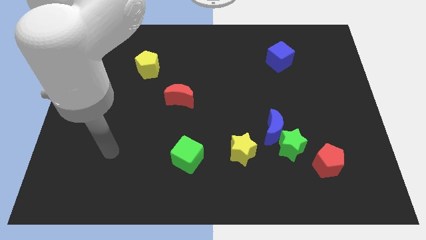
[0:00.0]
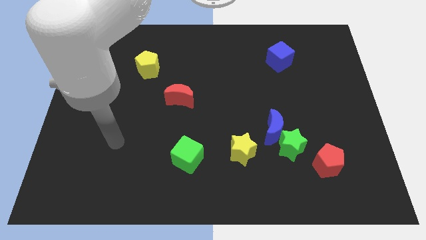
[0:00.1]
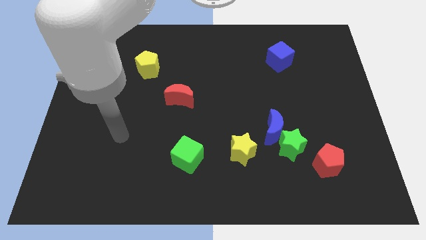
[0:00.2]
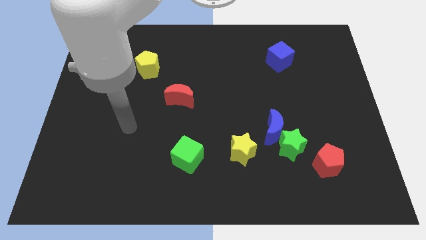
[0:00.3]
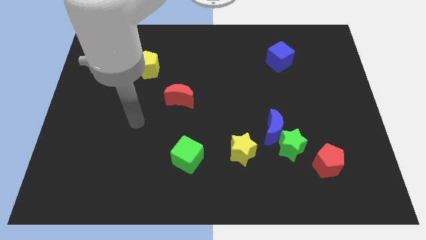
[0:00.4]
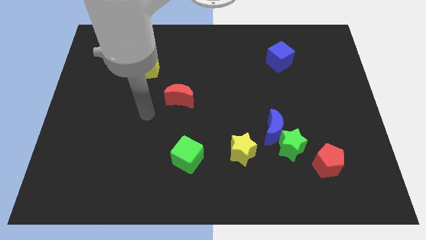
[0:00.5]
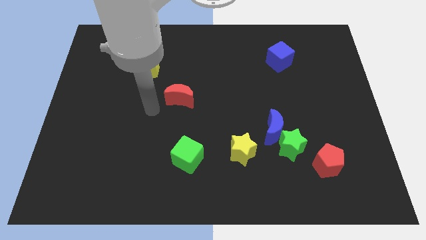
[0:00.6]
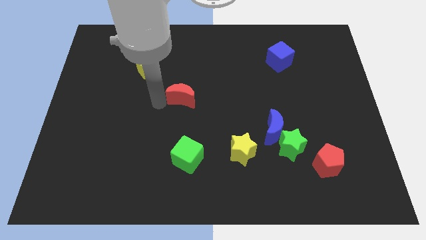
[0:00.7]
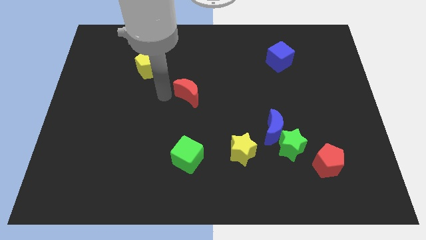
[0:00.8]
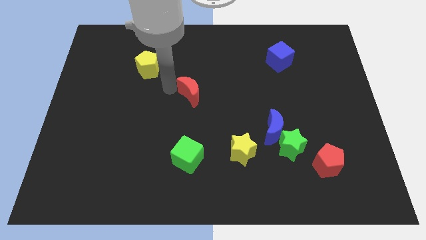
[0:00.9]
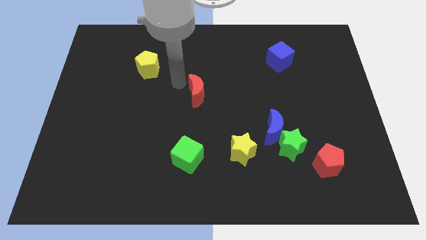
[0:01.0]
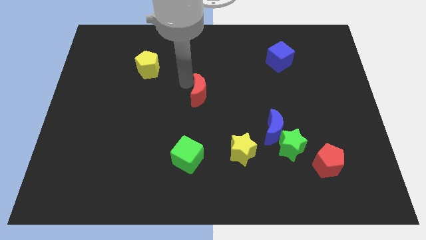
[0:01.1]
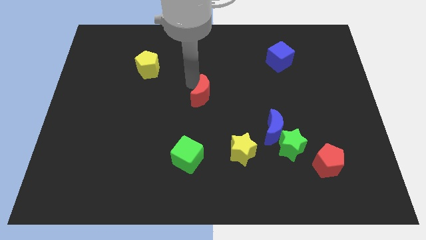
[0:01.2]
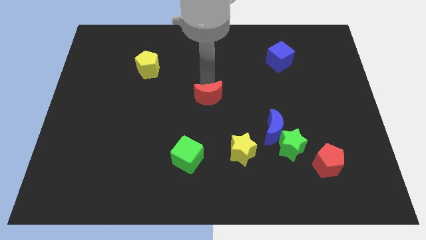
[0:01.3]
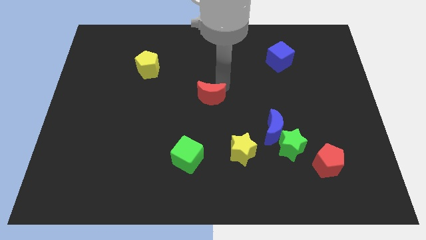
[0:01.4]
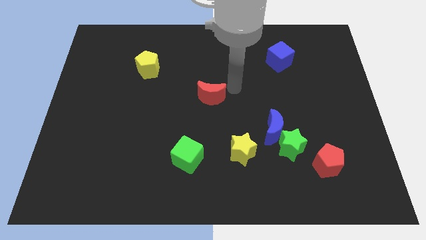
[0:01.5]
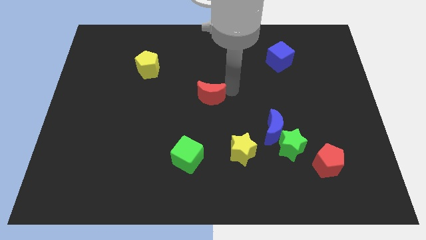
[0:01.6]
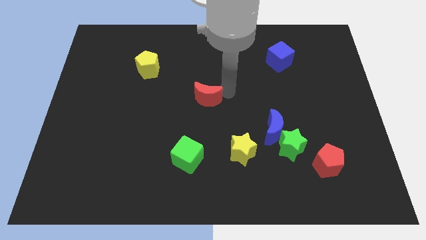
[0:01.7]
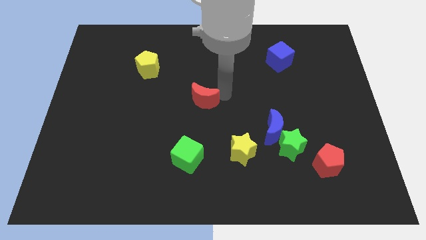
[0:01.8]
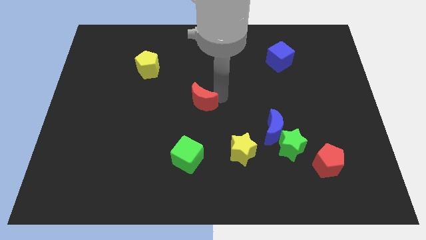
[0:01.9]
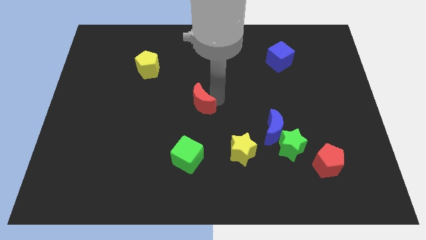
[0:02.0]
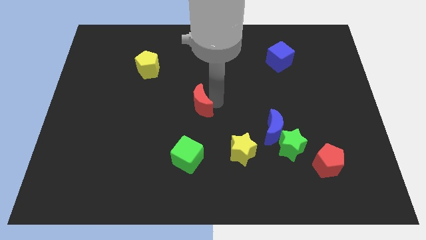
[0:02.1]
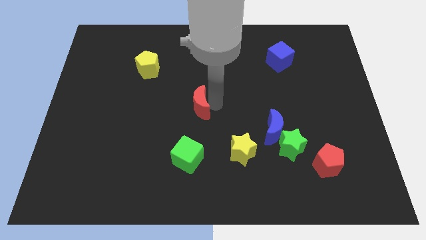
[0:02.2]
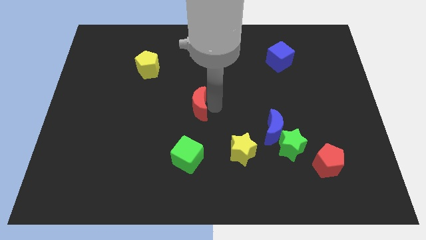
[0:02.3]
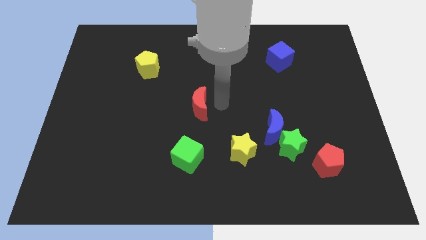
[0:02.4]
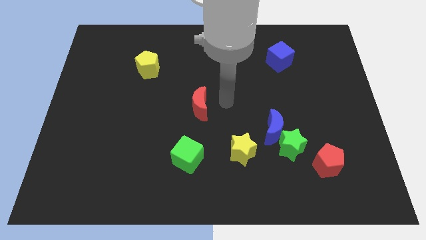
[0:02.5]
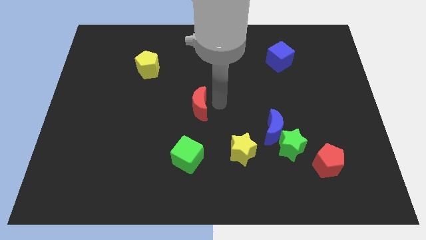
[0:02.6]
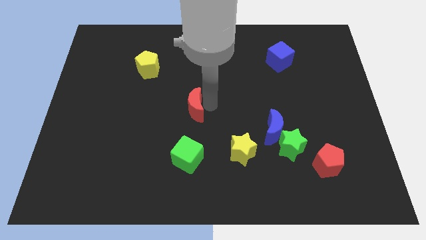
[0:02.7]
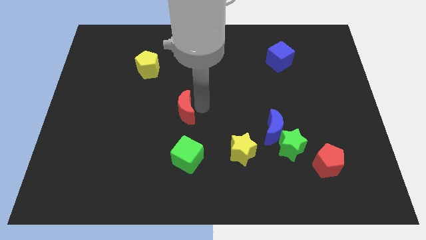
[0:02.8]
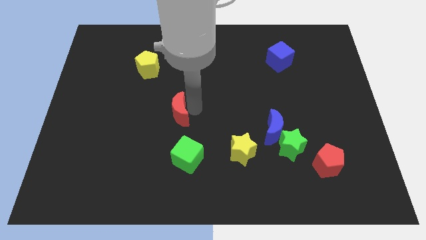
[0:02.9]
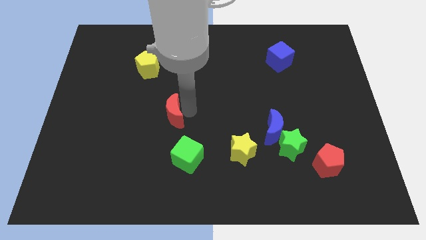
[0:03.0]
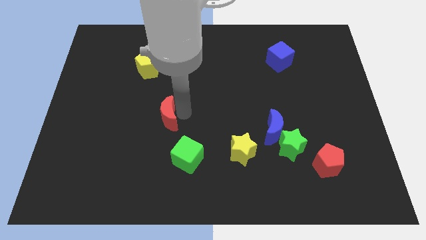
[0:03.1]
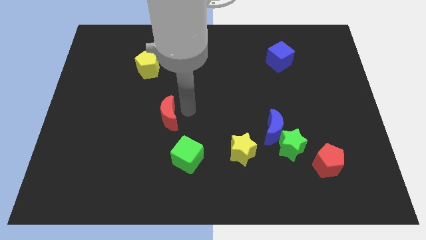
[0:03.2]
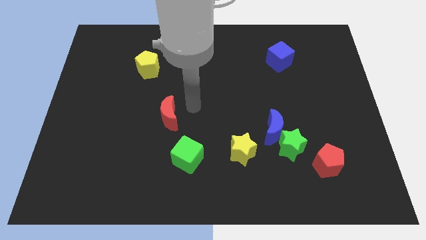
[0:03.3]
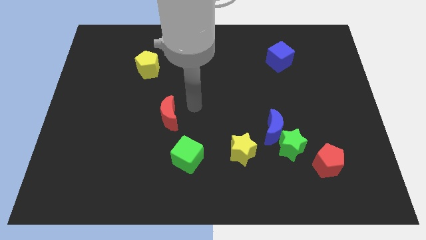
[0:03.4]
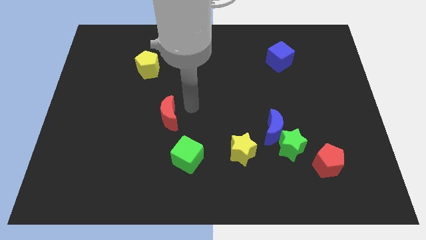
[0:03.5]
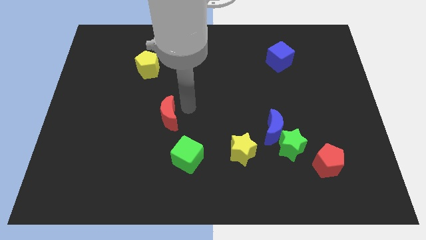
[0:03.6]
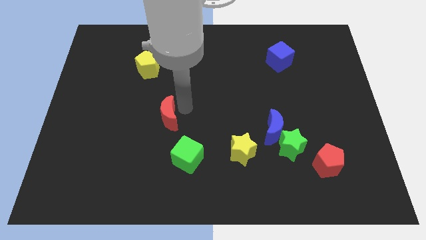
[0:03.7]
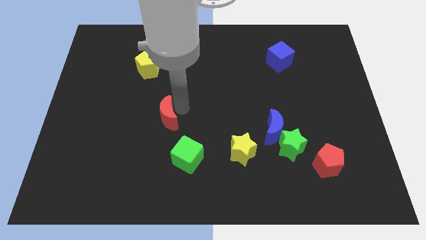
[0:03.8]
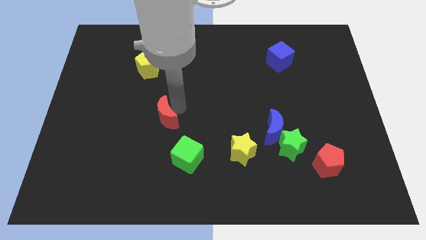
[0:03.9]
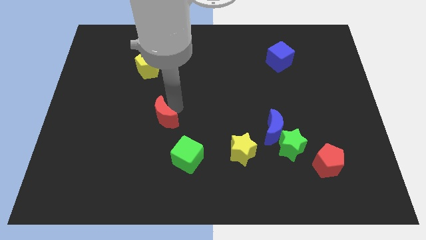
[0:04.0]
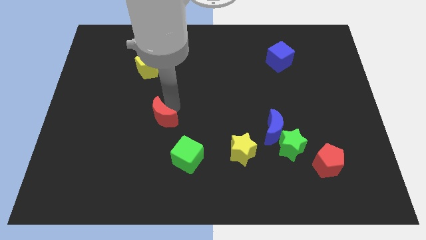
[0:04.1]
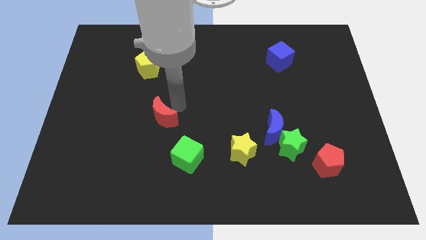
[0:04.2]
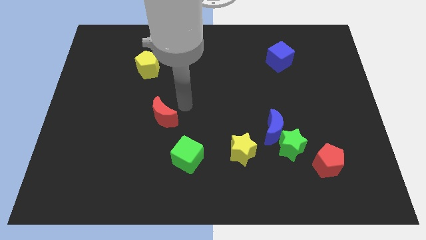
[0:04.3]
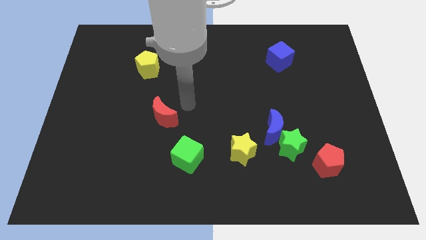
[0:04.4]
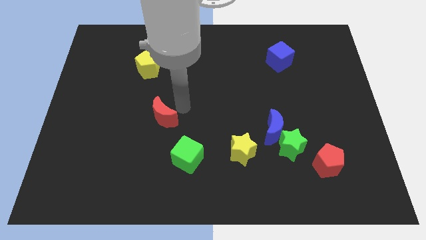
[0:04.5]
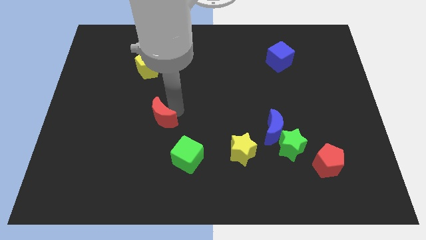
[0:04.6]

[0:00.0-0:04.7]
push the red moon a little diagonally down and to the left

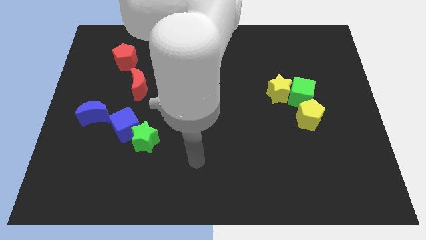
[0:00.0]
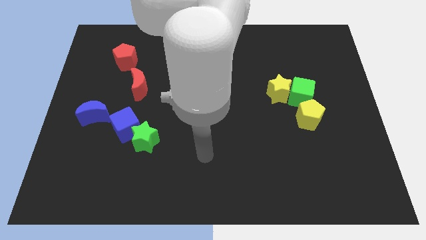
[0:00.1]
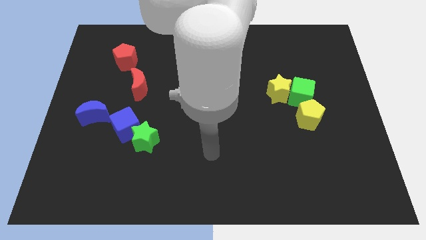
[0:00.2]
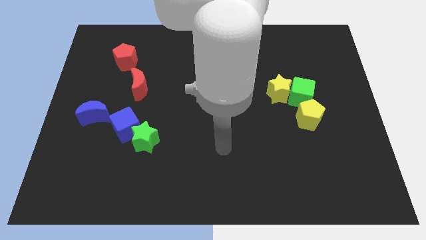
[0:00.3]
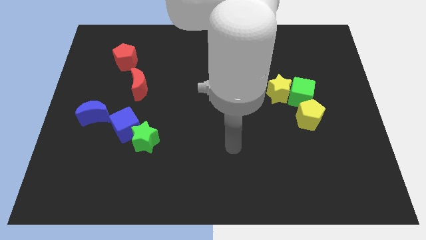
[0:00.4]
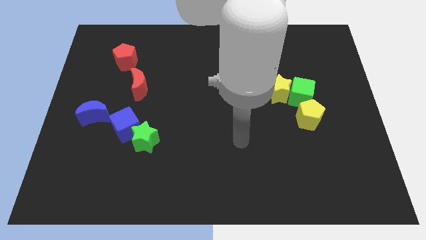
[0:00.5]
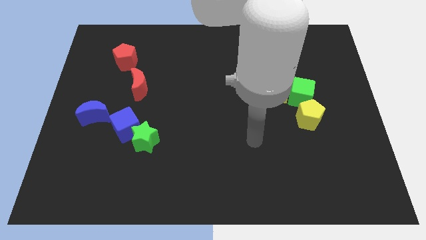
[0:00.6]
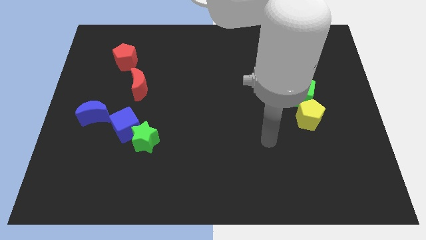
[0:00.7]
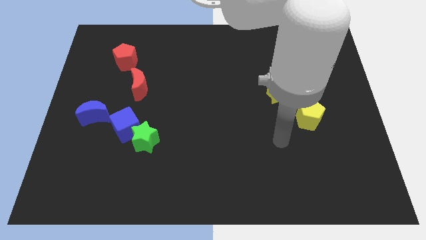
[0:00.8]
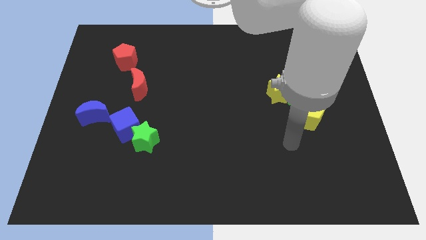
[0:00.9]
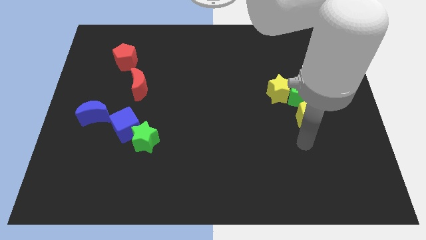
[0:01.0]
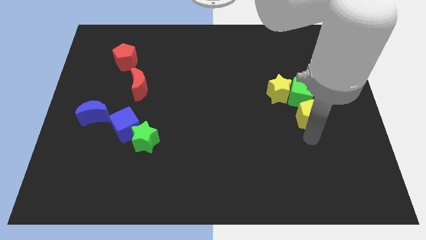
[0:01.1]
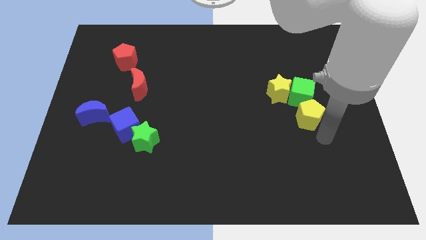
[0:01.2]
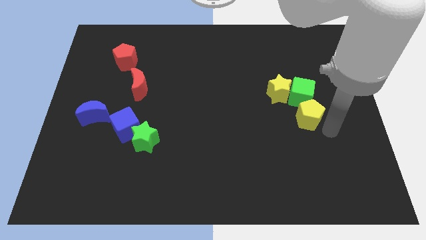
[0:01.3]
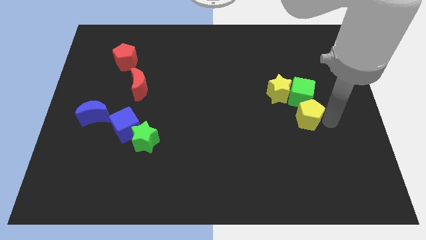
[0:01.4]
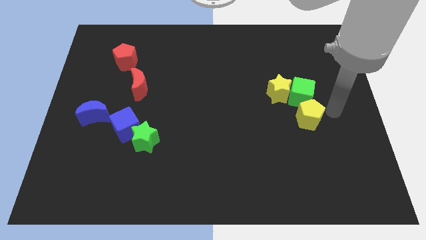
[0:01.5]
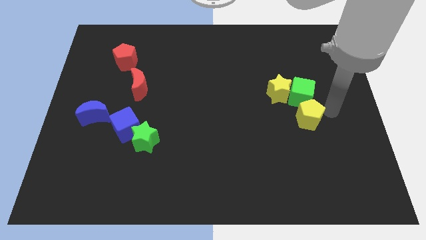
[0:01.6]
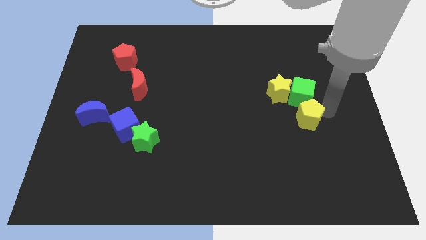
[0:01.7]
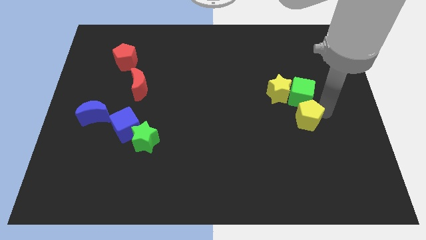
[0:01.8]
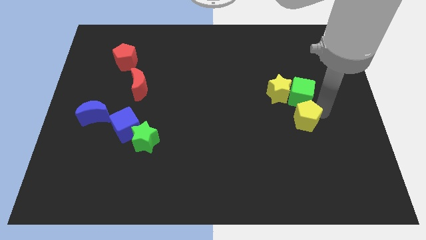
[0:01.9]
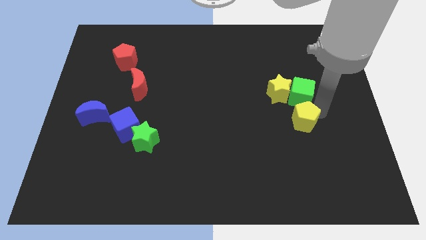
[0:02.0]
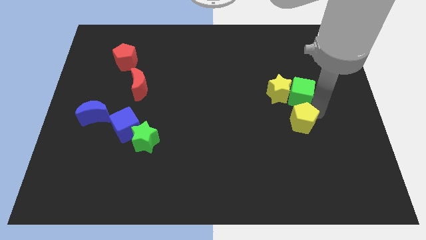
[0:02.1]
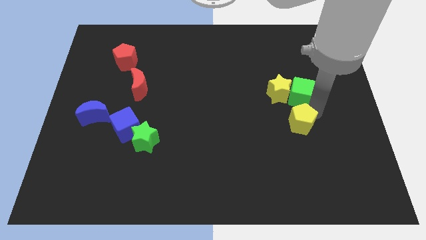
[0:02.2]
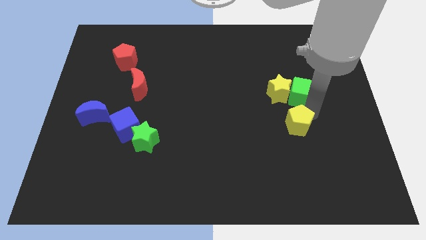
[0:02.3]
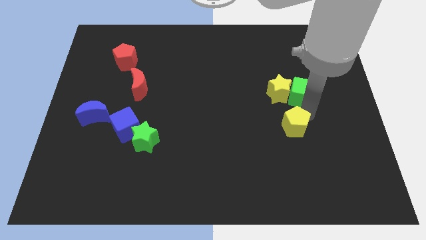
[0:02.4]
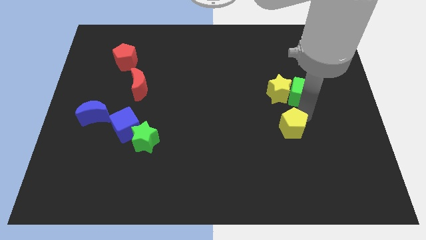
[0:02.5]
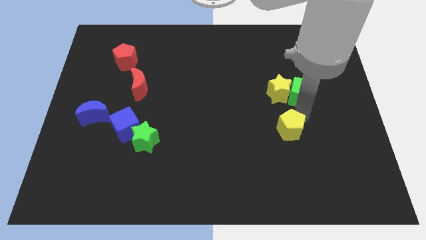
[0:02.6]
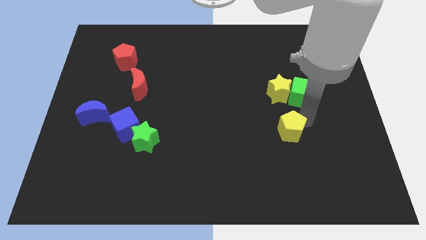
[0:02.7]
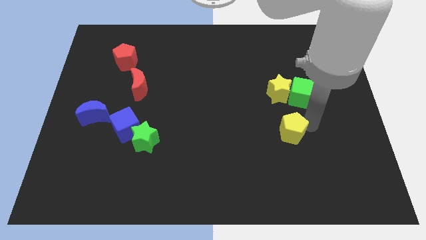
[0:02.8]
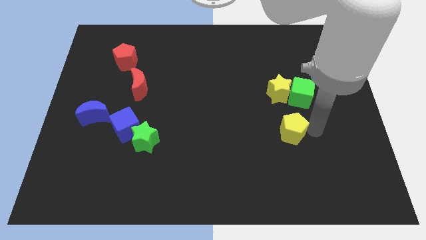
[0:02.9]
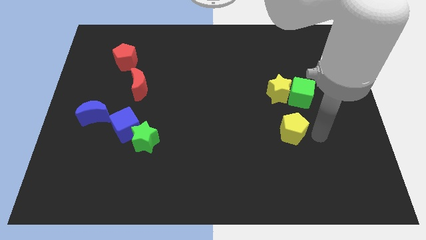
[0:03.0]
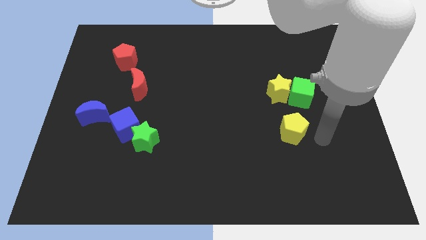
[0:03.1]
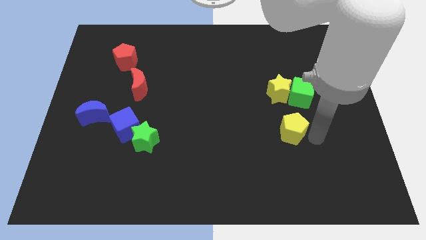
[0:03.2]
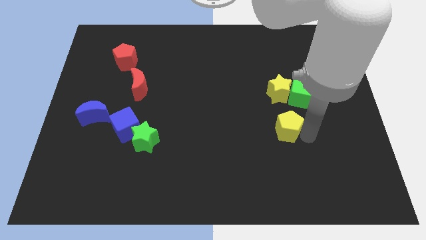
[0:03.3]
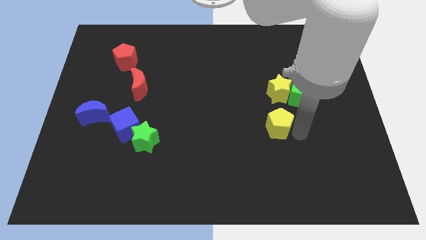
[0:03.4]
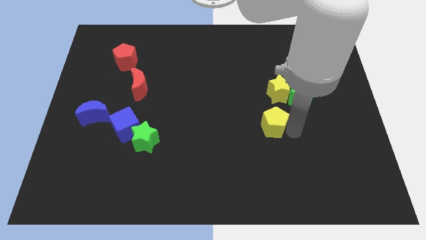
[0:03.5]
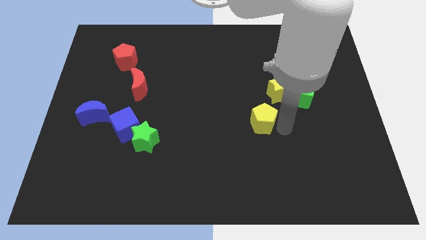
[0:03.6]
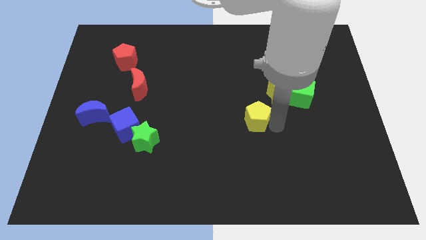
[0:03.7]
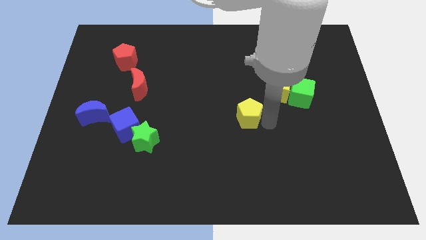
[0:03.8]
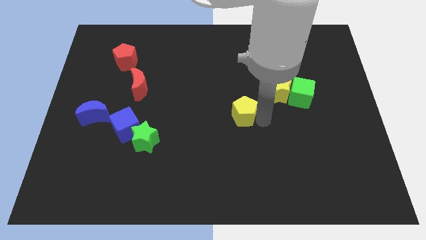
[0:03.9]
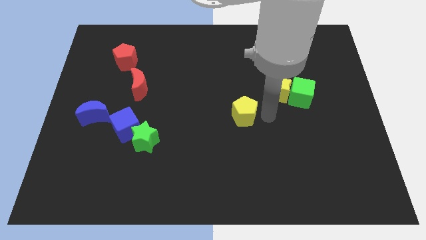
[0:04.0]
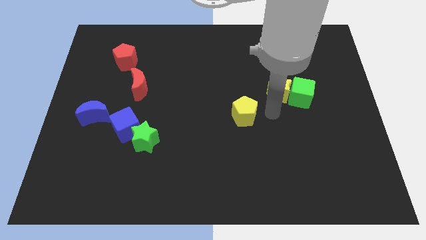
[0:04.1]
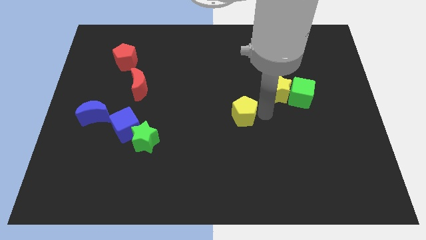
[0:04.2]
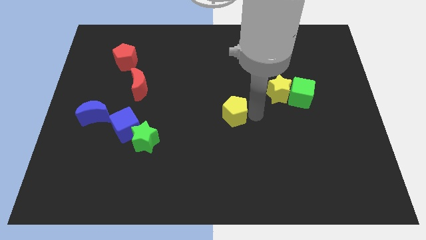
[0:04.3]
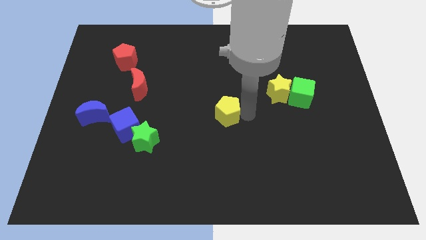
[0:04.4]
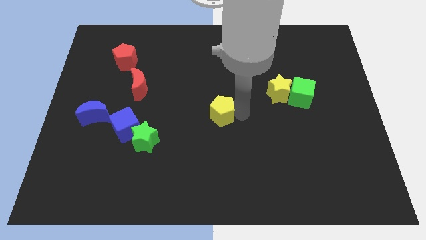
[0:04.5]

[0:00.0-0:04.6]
move the yellow pentagon to the left
